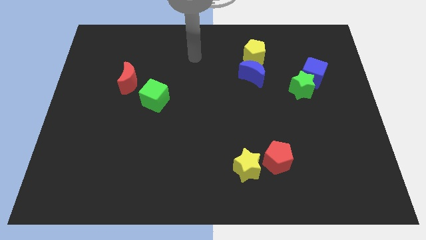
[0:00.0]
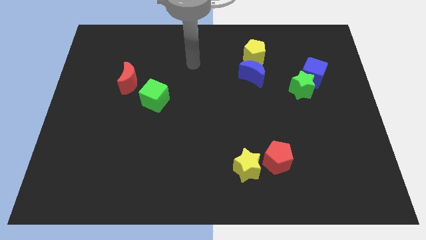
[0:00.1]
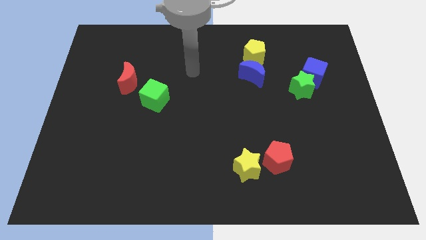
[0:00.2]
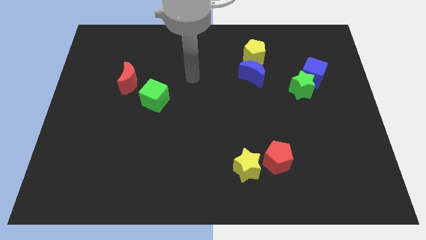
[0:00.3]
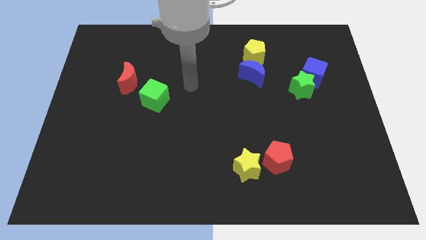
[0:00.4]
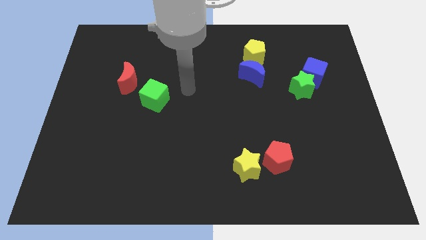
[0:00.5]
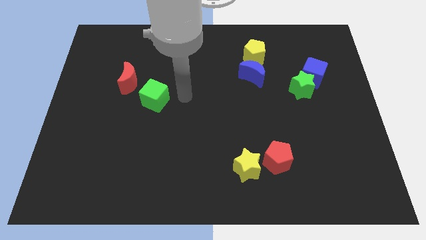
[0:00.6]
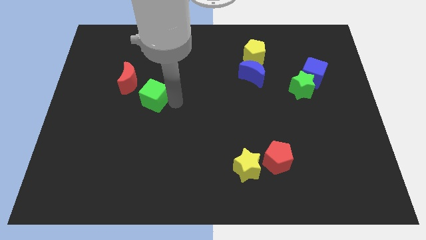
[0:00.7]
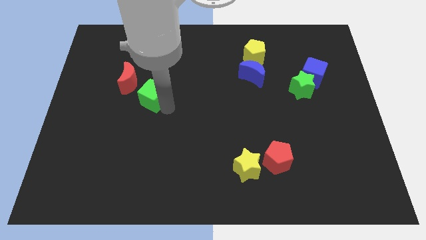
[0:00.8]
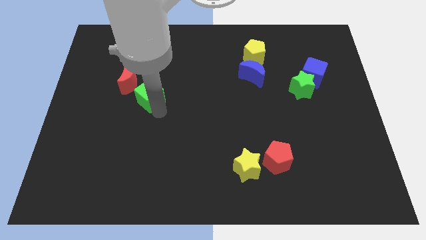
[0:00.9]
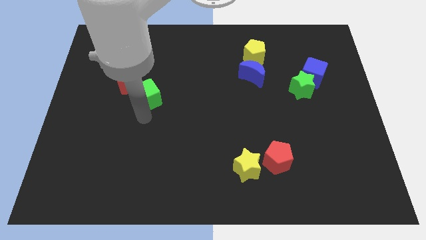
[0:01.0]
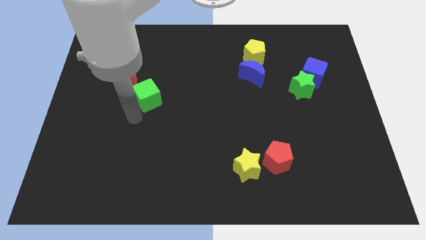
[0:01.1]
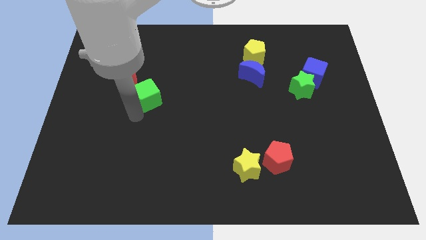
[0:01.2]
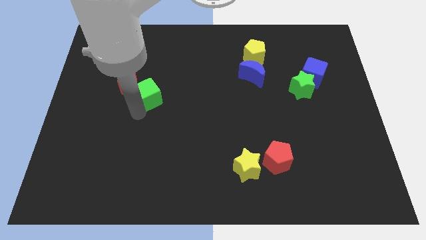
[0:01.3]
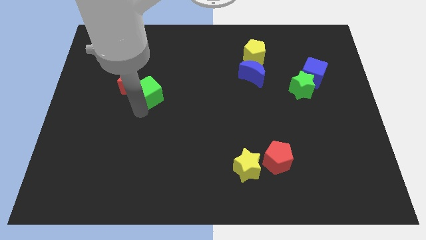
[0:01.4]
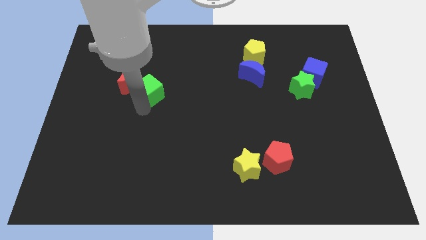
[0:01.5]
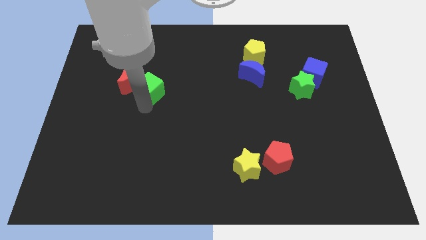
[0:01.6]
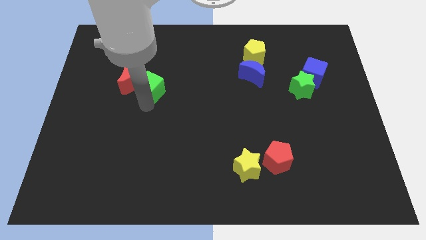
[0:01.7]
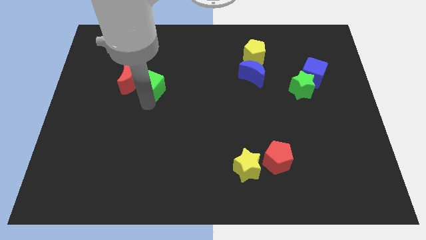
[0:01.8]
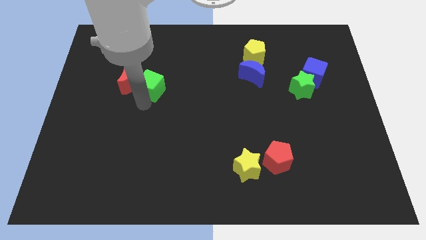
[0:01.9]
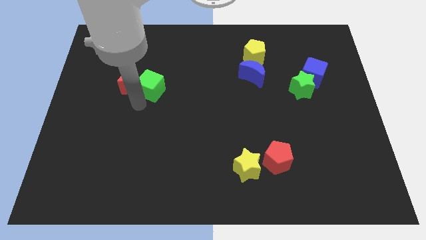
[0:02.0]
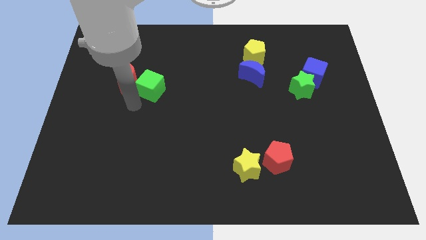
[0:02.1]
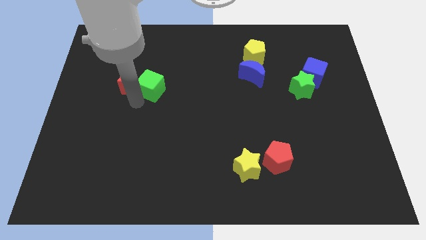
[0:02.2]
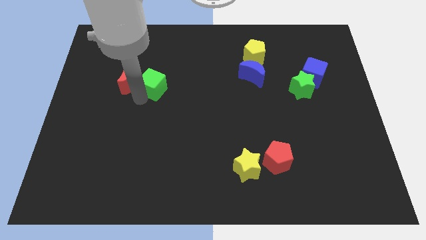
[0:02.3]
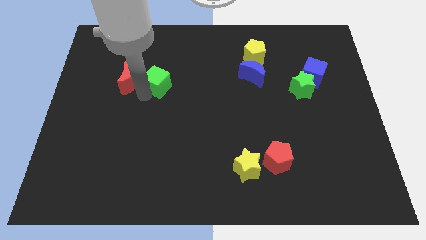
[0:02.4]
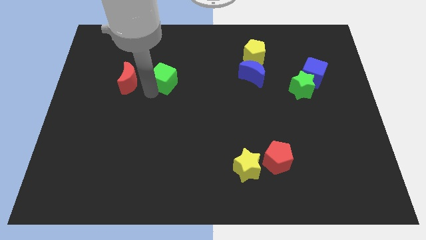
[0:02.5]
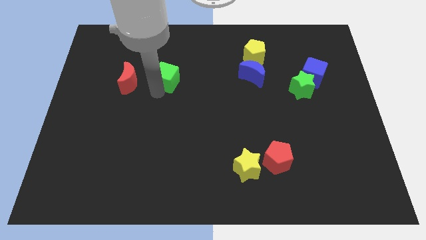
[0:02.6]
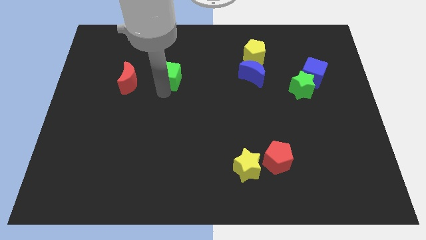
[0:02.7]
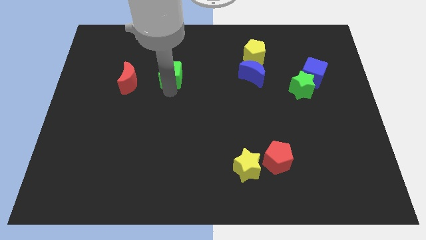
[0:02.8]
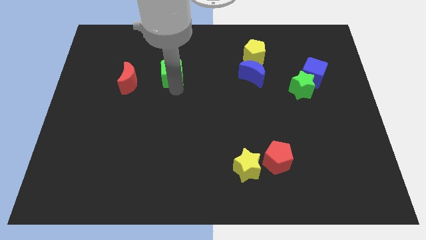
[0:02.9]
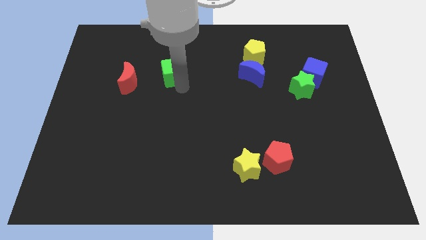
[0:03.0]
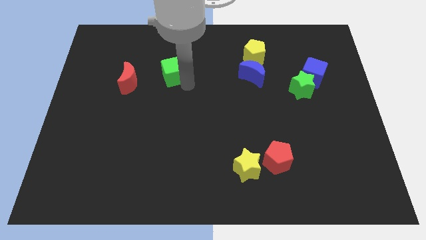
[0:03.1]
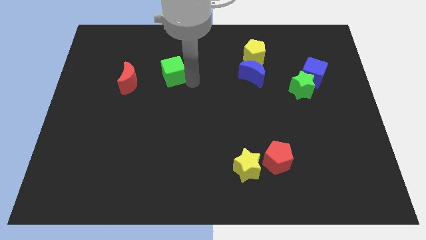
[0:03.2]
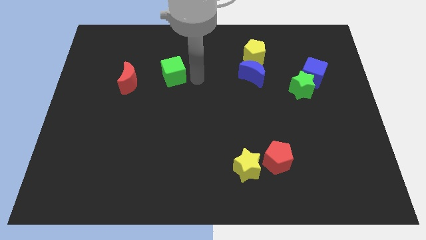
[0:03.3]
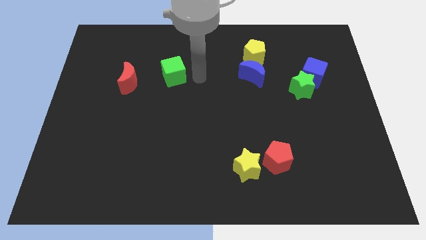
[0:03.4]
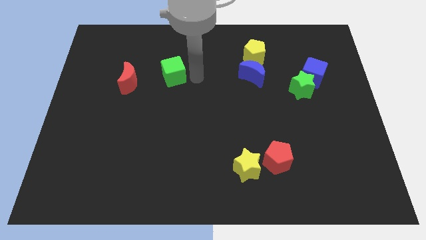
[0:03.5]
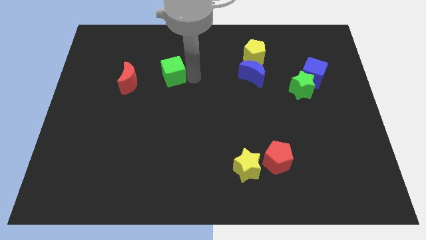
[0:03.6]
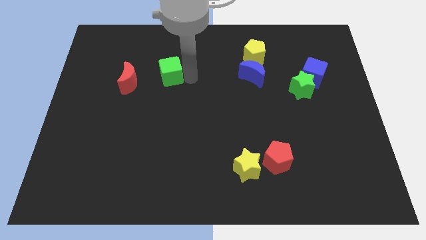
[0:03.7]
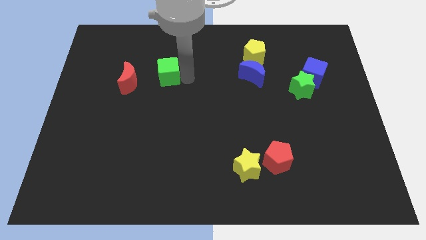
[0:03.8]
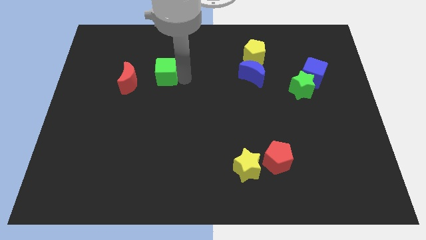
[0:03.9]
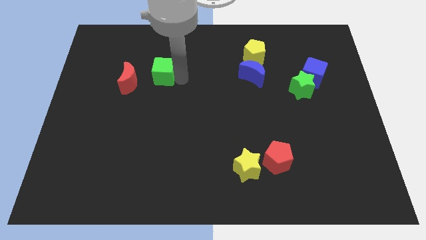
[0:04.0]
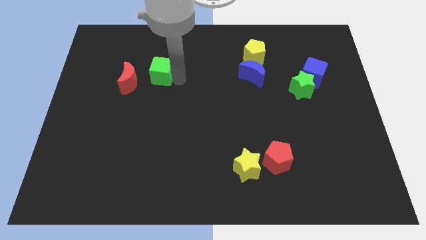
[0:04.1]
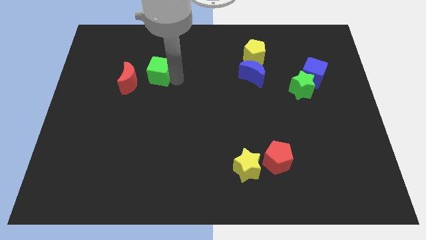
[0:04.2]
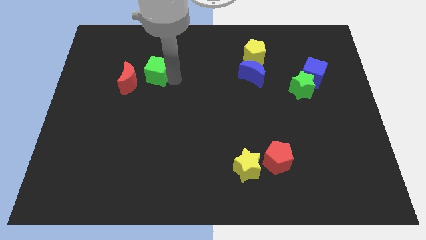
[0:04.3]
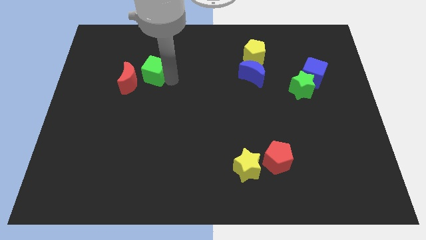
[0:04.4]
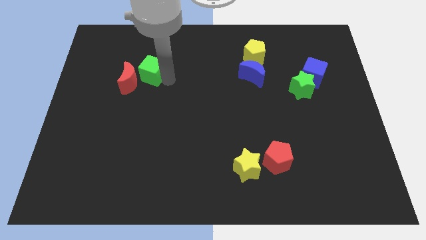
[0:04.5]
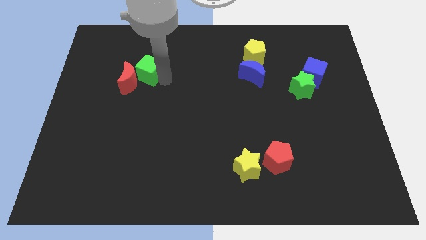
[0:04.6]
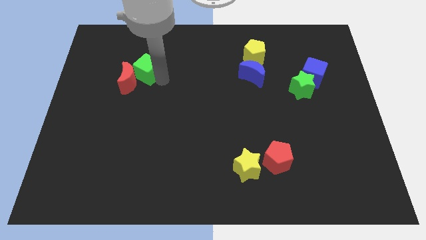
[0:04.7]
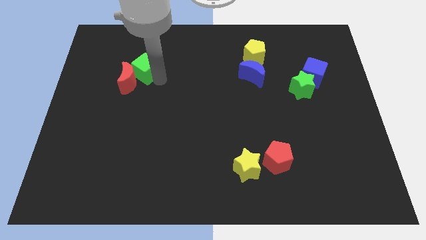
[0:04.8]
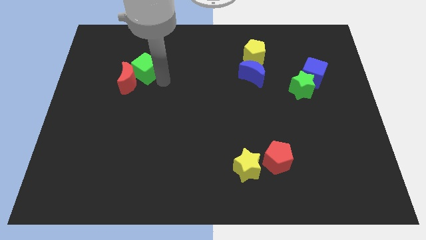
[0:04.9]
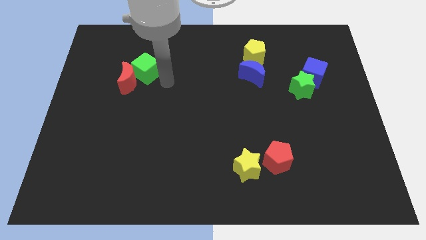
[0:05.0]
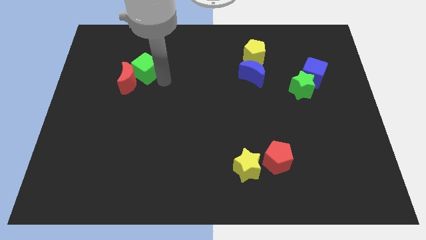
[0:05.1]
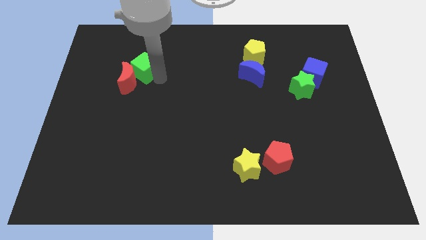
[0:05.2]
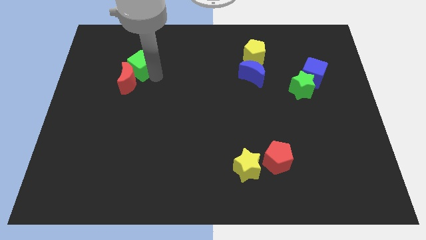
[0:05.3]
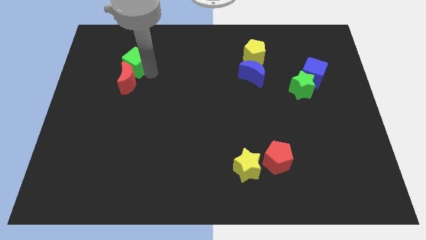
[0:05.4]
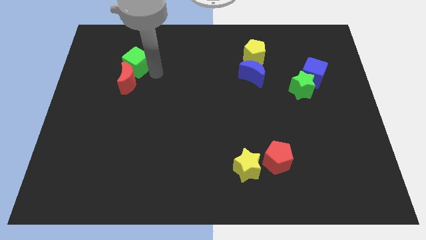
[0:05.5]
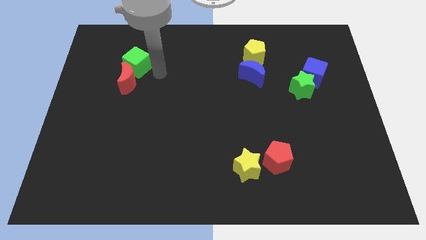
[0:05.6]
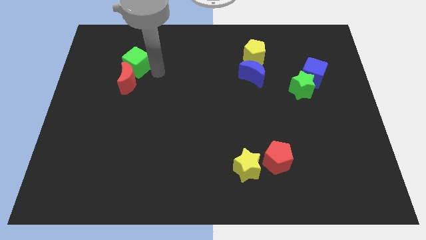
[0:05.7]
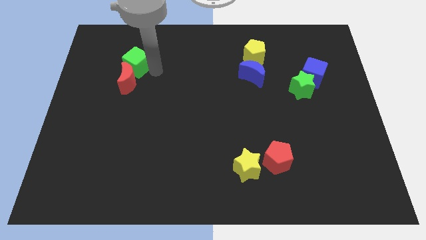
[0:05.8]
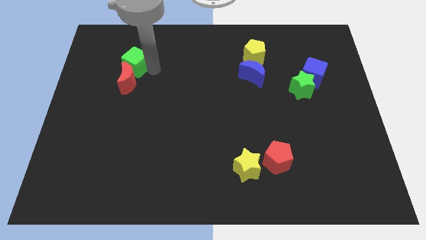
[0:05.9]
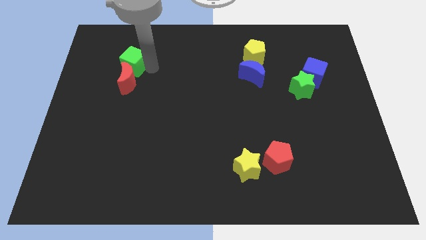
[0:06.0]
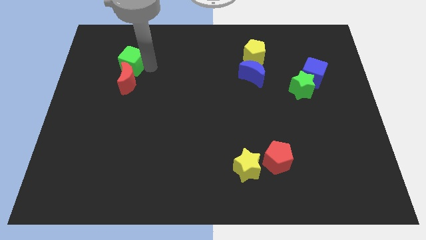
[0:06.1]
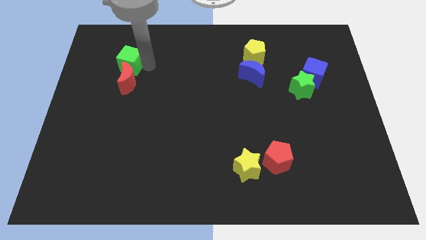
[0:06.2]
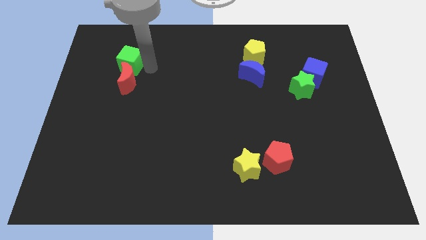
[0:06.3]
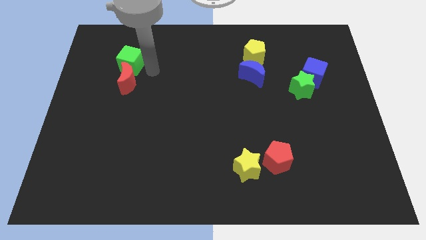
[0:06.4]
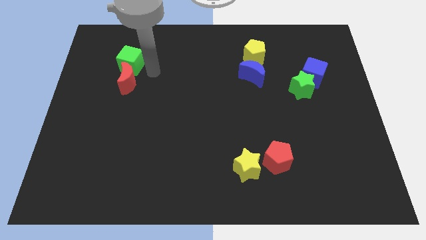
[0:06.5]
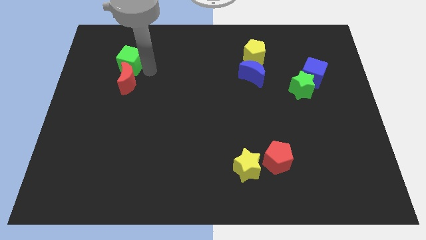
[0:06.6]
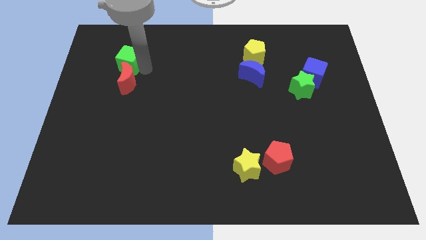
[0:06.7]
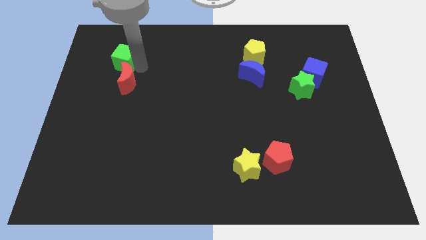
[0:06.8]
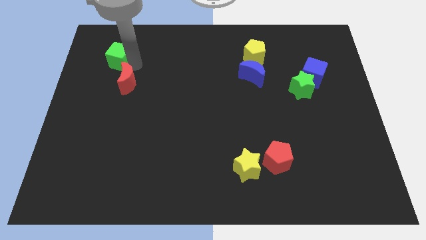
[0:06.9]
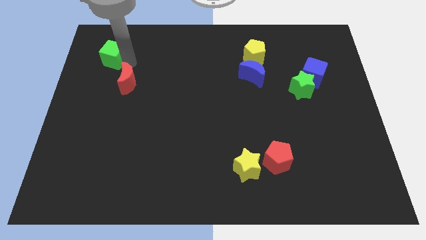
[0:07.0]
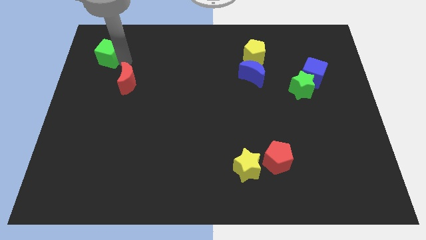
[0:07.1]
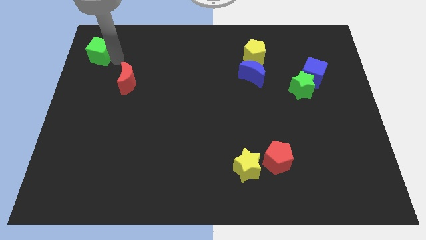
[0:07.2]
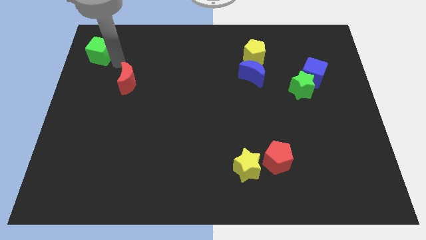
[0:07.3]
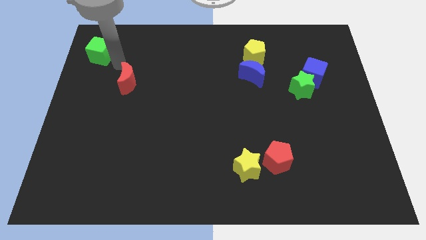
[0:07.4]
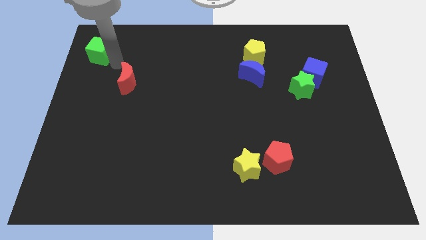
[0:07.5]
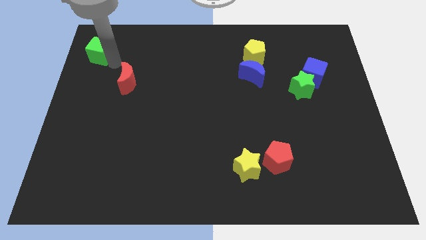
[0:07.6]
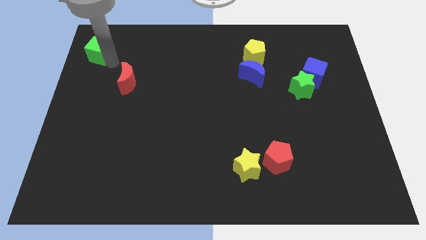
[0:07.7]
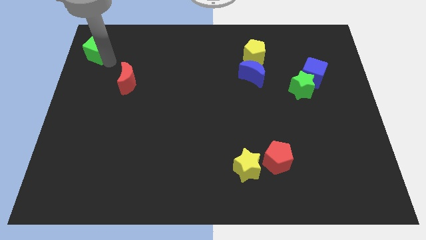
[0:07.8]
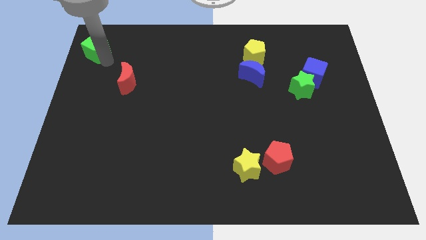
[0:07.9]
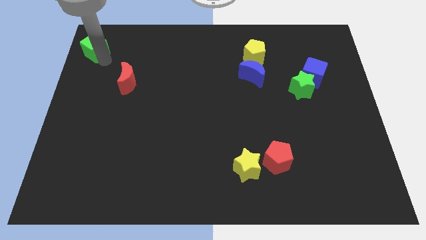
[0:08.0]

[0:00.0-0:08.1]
put the green cube to the top left corner
